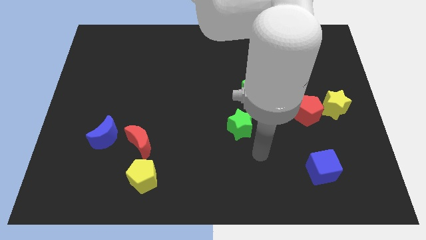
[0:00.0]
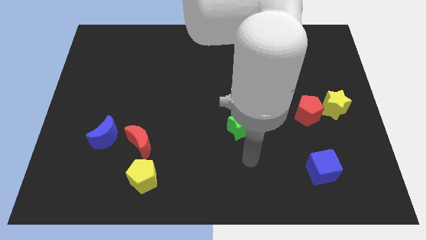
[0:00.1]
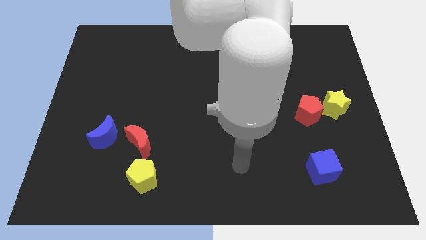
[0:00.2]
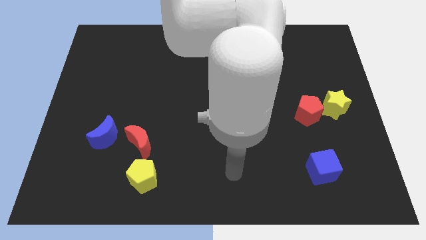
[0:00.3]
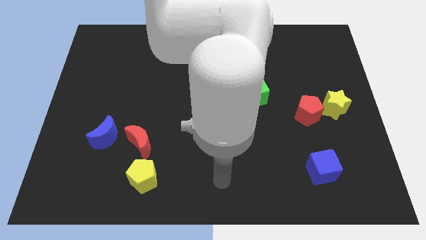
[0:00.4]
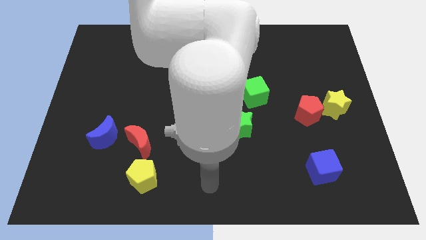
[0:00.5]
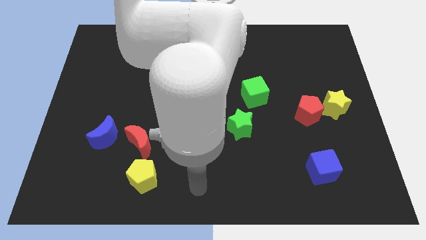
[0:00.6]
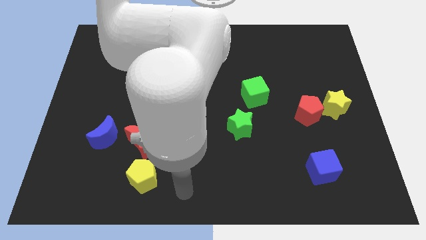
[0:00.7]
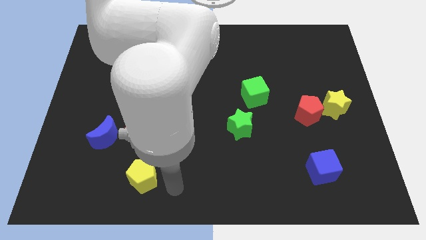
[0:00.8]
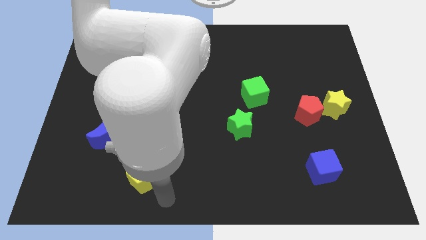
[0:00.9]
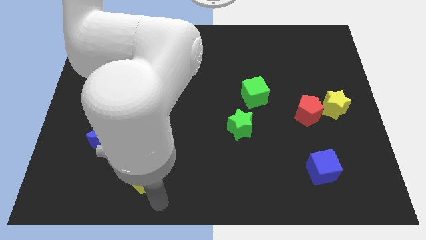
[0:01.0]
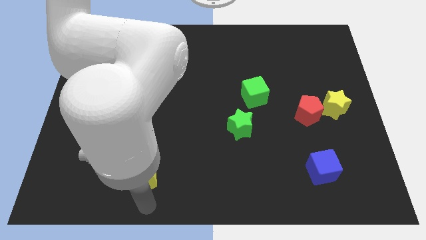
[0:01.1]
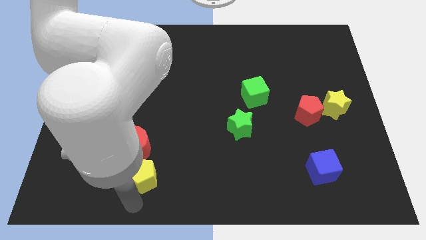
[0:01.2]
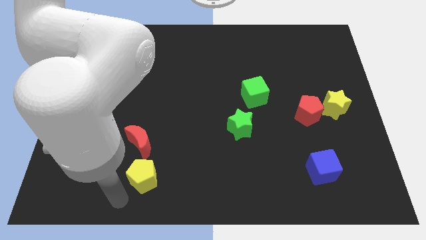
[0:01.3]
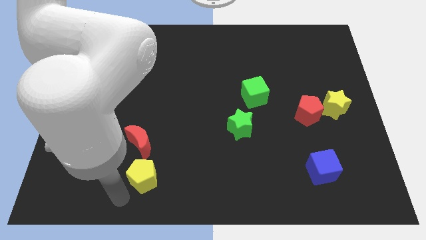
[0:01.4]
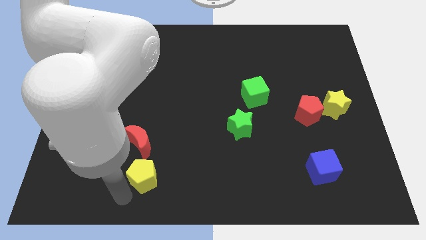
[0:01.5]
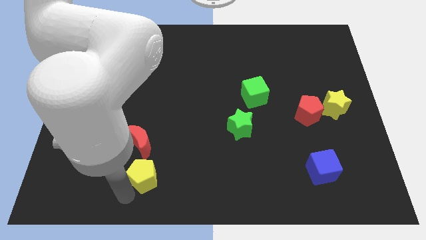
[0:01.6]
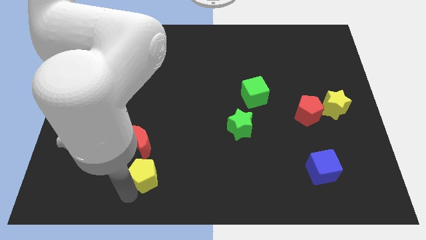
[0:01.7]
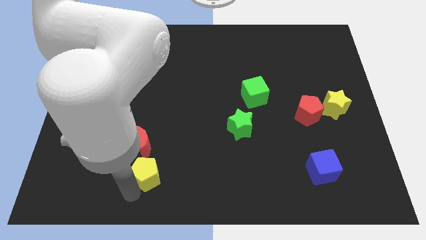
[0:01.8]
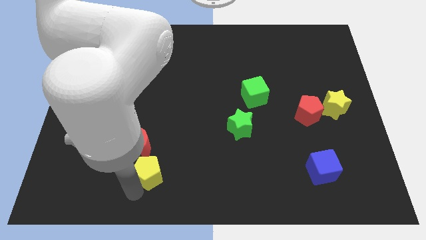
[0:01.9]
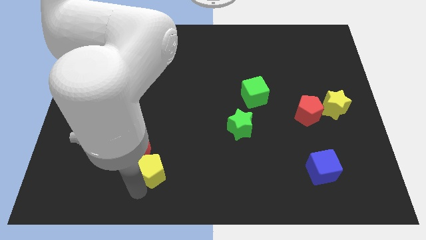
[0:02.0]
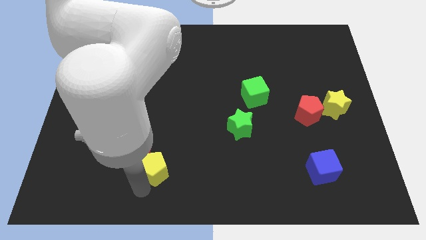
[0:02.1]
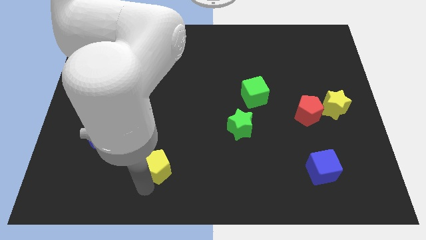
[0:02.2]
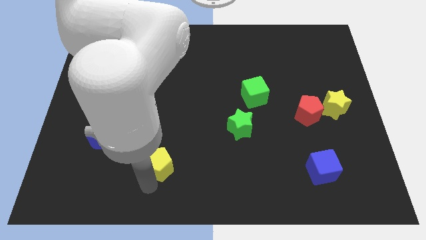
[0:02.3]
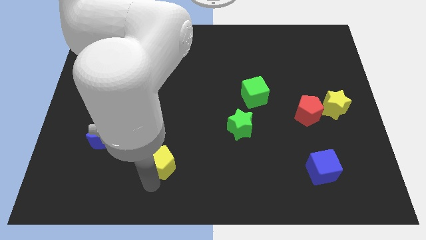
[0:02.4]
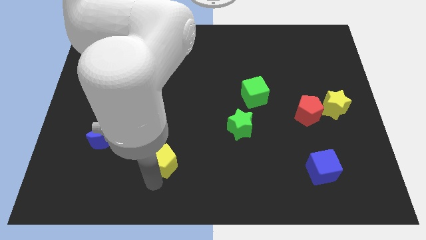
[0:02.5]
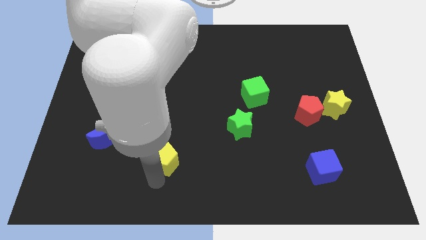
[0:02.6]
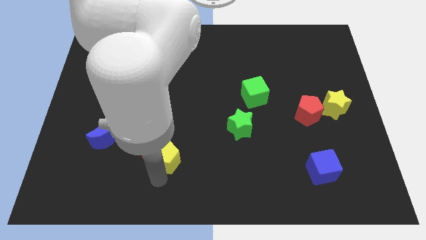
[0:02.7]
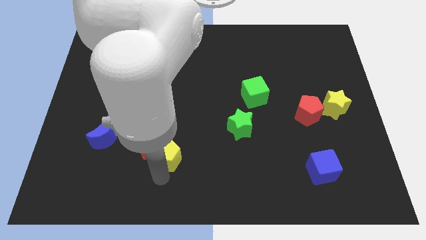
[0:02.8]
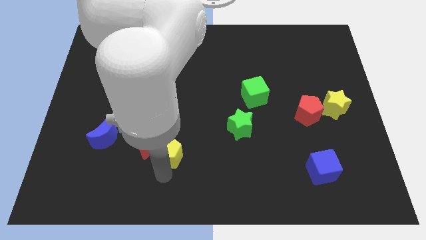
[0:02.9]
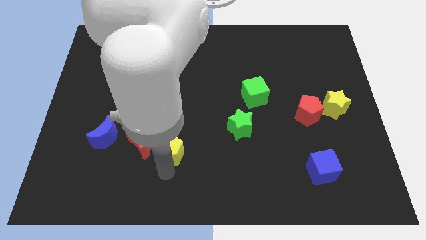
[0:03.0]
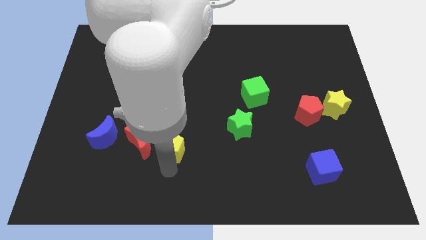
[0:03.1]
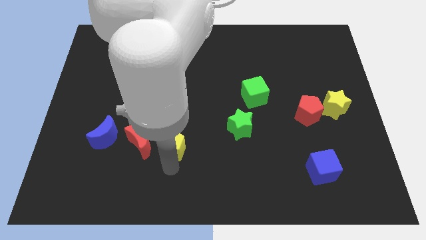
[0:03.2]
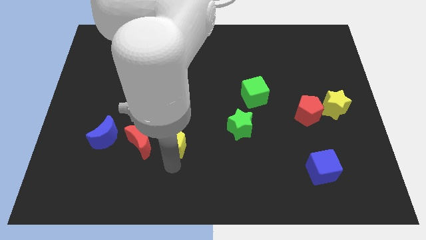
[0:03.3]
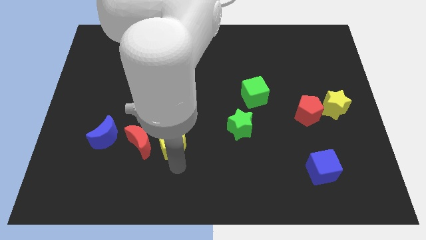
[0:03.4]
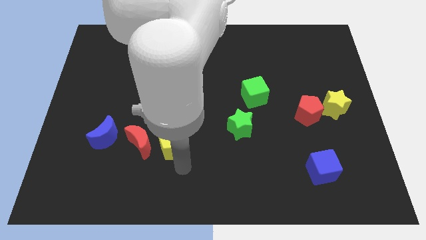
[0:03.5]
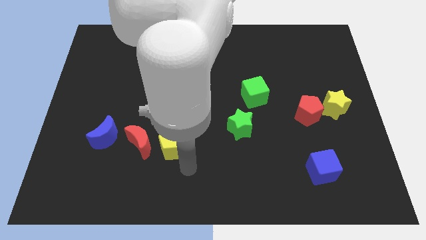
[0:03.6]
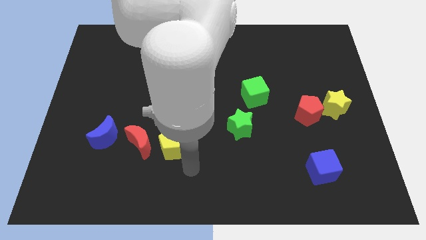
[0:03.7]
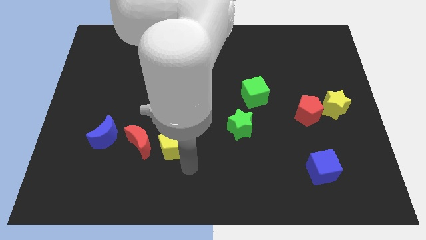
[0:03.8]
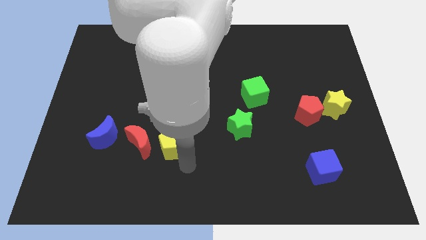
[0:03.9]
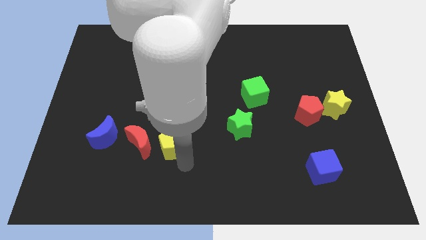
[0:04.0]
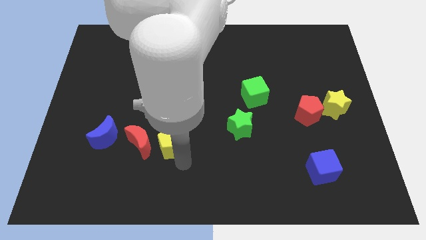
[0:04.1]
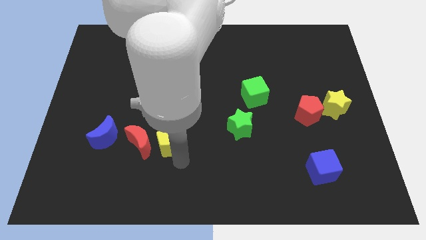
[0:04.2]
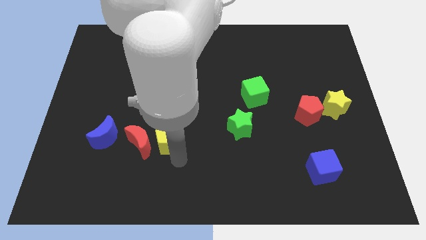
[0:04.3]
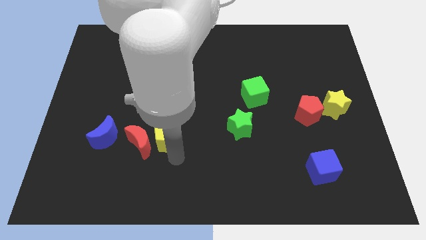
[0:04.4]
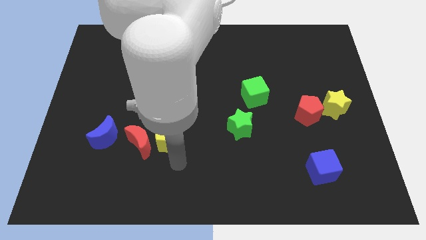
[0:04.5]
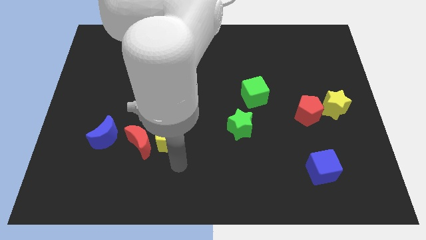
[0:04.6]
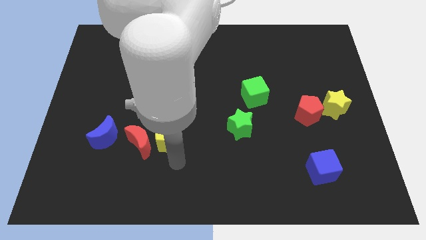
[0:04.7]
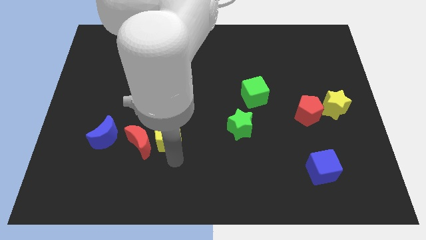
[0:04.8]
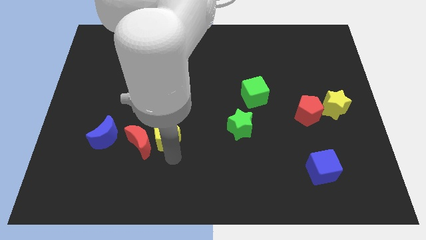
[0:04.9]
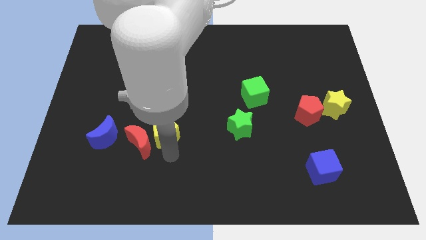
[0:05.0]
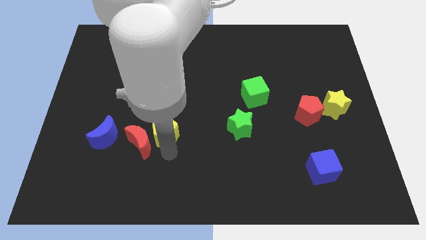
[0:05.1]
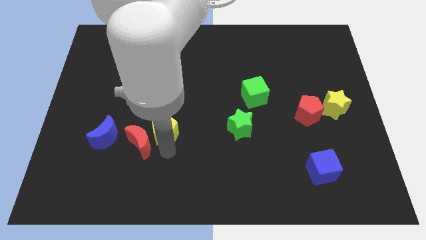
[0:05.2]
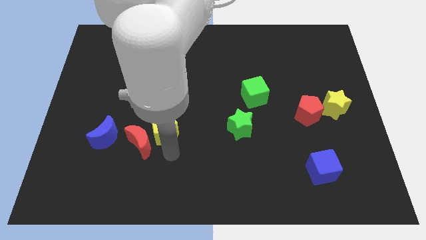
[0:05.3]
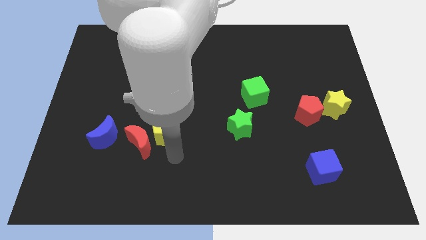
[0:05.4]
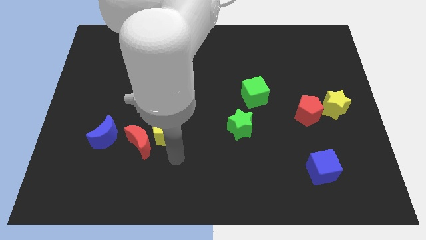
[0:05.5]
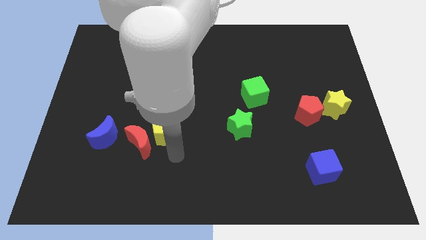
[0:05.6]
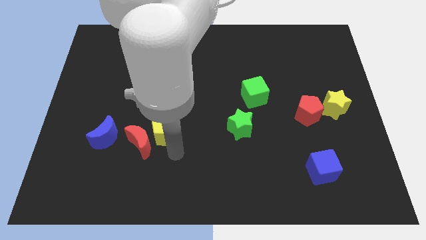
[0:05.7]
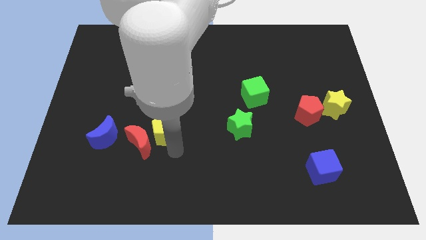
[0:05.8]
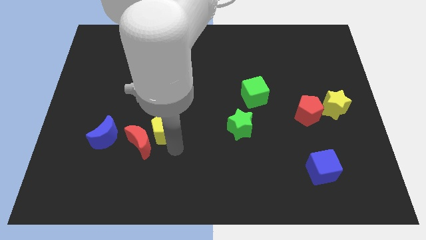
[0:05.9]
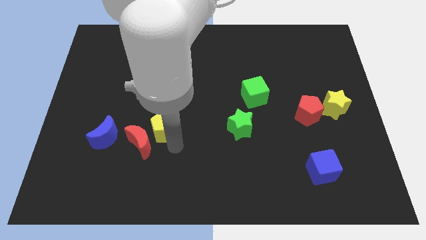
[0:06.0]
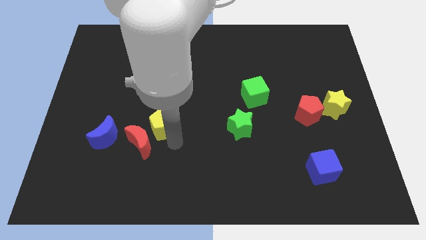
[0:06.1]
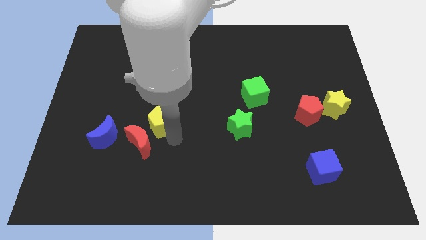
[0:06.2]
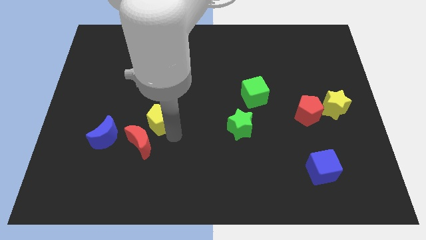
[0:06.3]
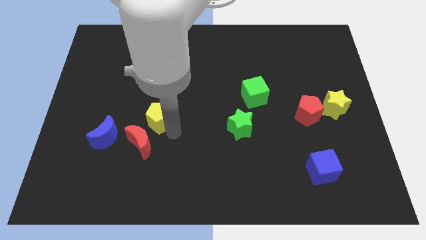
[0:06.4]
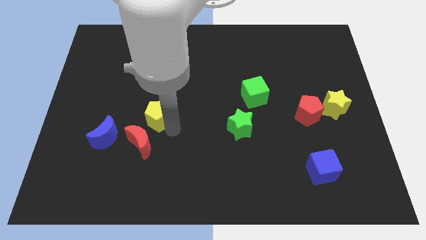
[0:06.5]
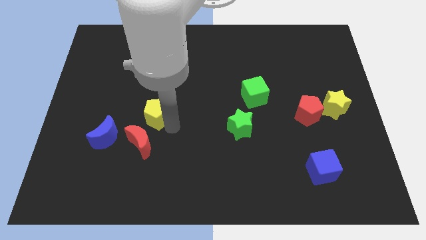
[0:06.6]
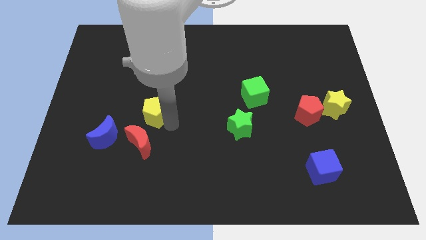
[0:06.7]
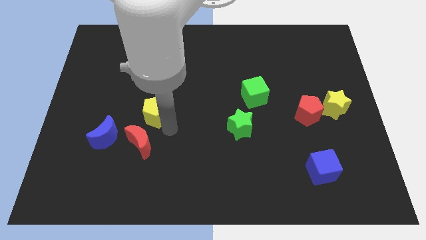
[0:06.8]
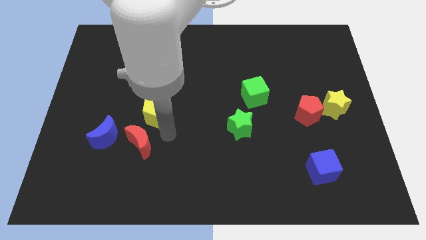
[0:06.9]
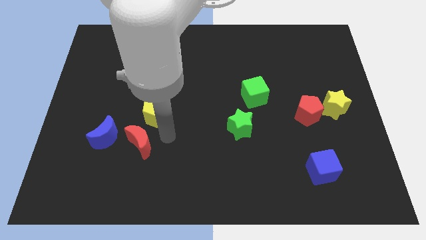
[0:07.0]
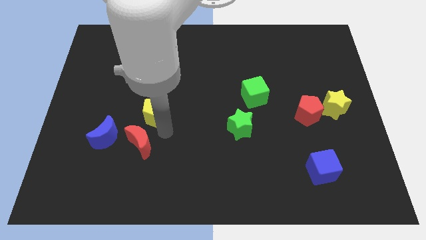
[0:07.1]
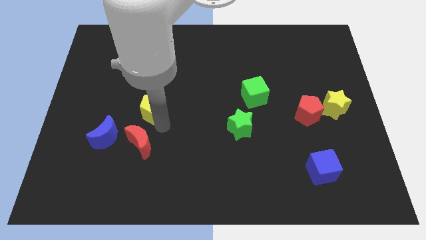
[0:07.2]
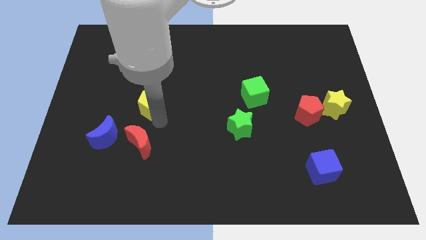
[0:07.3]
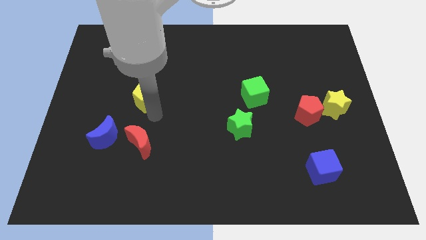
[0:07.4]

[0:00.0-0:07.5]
push the yellow pentagon upwards

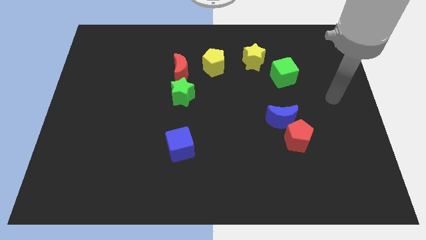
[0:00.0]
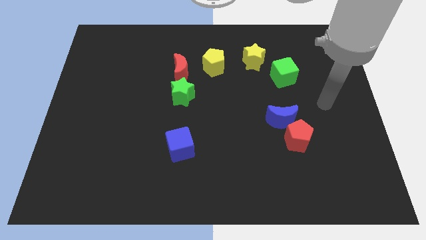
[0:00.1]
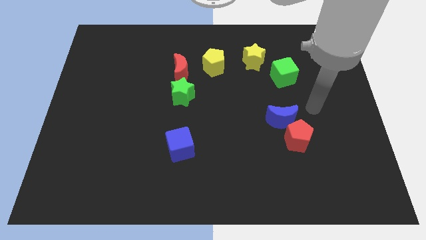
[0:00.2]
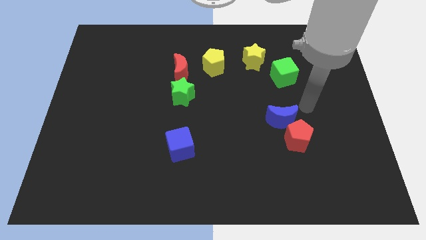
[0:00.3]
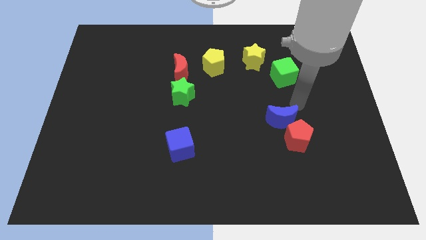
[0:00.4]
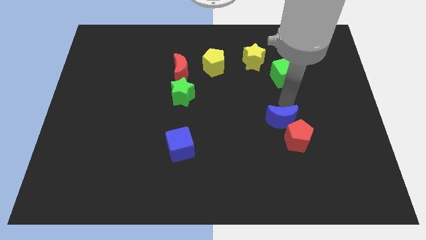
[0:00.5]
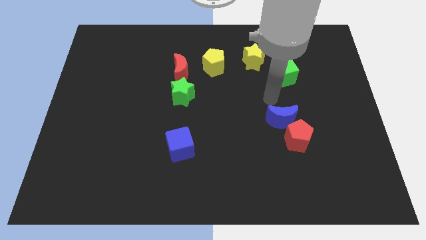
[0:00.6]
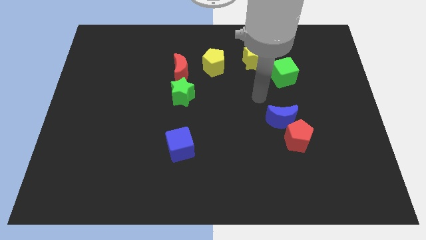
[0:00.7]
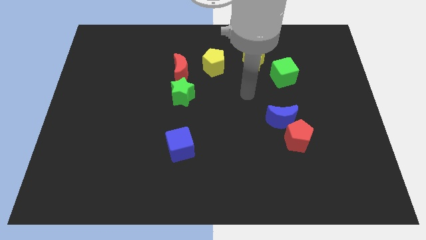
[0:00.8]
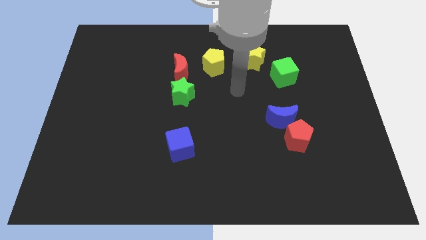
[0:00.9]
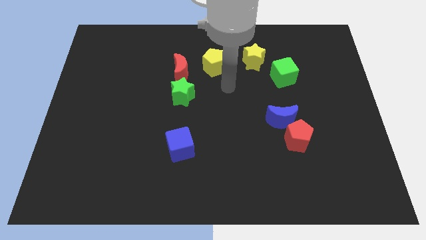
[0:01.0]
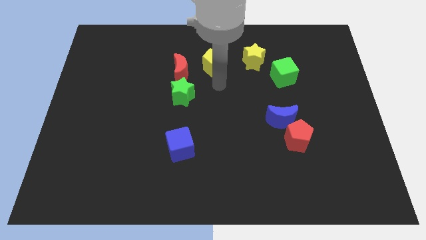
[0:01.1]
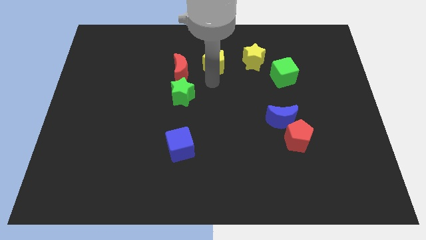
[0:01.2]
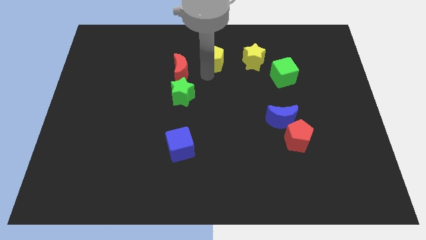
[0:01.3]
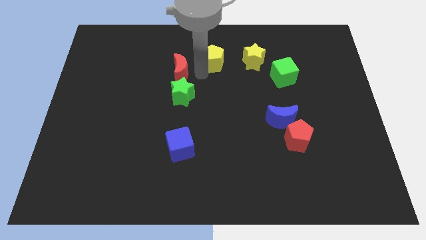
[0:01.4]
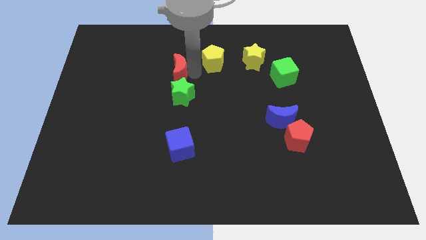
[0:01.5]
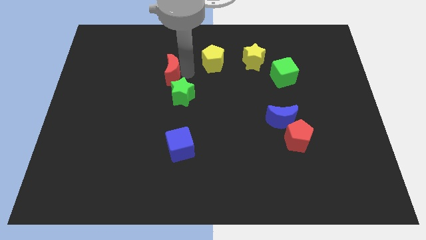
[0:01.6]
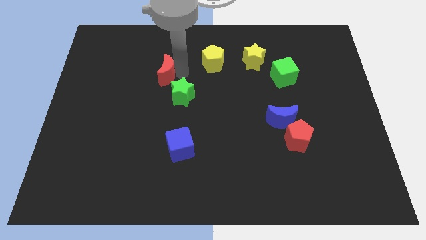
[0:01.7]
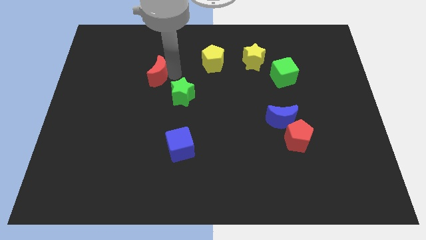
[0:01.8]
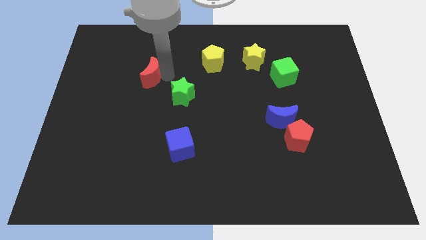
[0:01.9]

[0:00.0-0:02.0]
slightly move the red moon to the left
